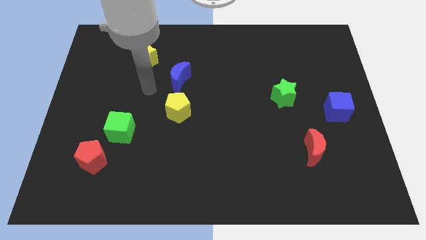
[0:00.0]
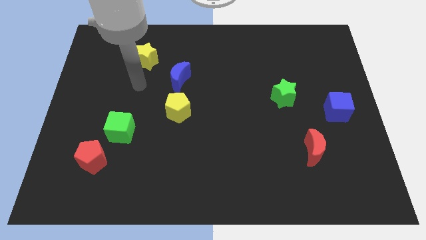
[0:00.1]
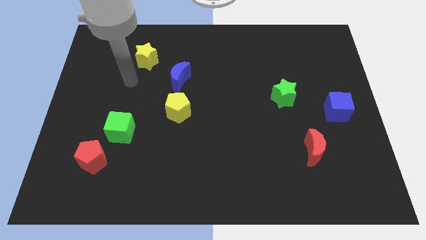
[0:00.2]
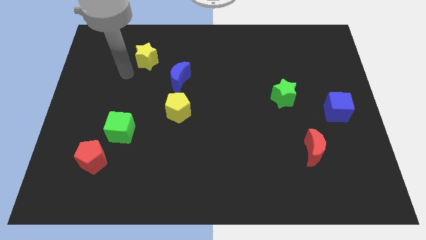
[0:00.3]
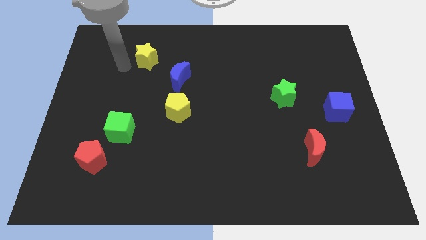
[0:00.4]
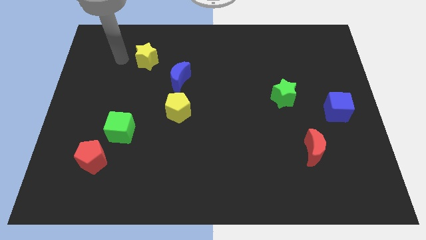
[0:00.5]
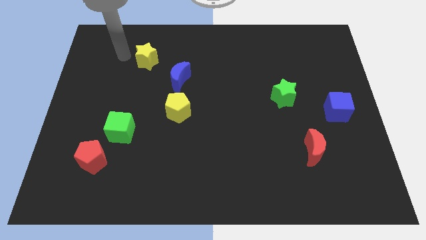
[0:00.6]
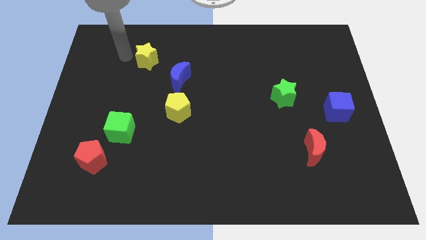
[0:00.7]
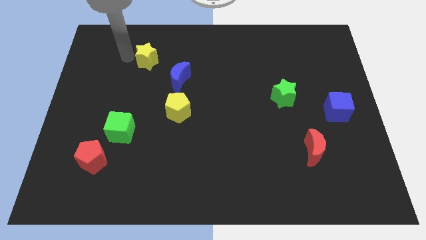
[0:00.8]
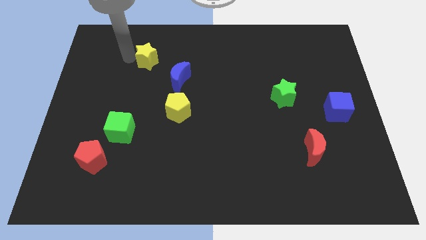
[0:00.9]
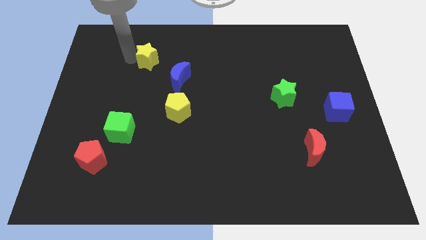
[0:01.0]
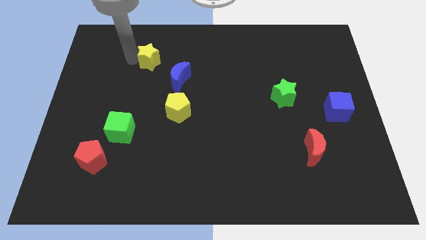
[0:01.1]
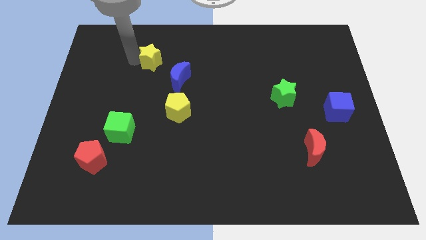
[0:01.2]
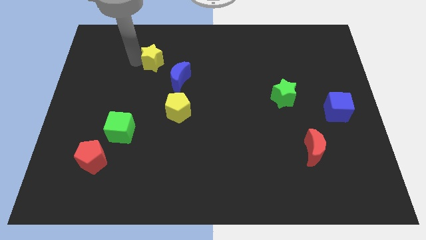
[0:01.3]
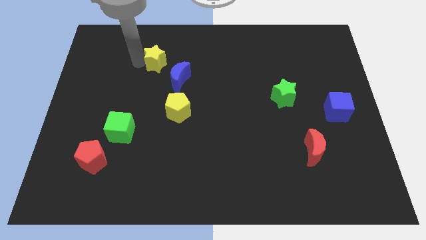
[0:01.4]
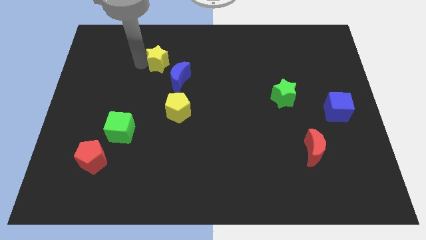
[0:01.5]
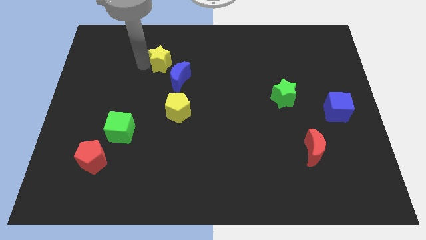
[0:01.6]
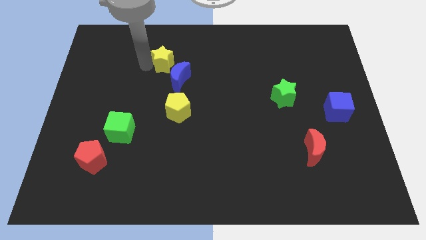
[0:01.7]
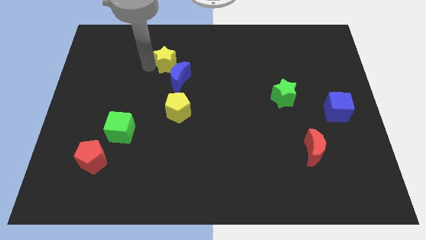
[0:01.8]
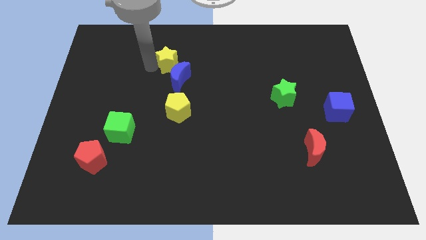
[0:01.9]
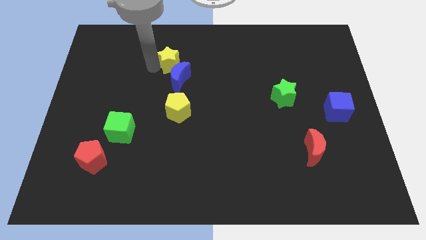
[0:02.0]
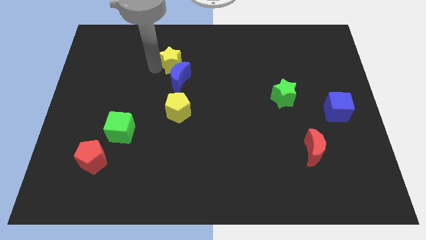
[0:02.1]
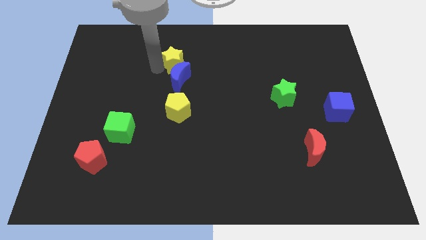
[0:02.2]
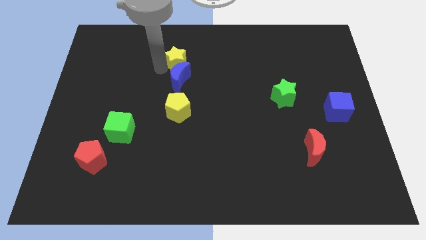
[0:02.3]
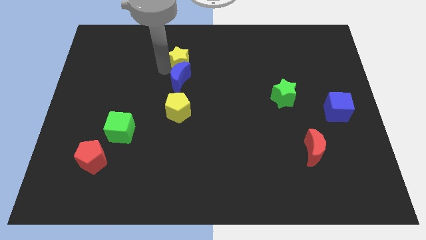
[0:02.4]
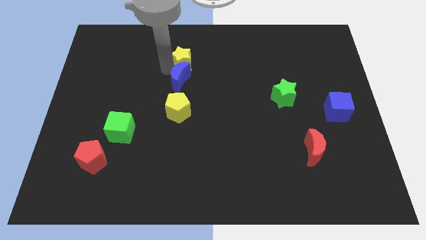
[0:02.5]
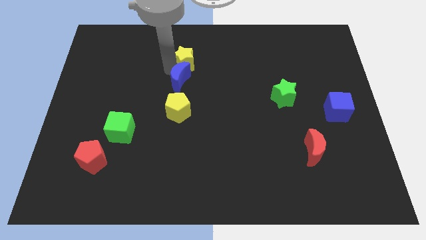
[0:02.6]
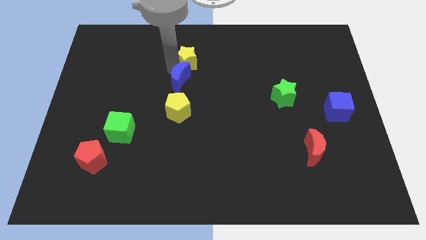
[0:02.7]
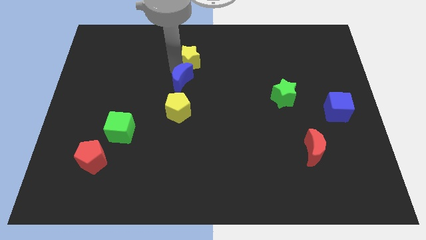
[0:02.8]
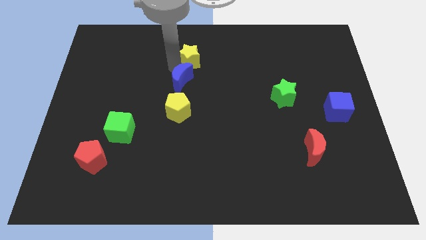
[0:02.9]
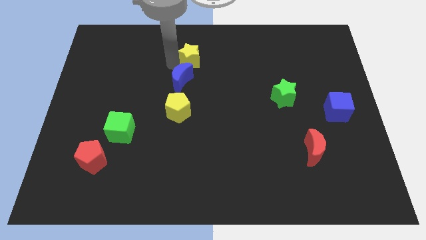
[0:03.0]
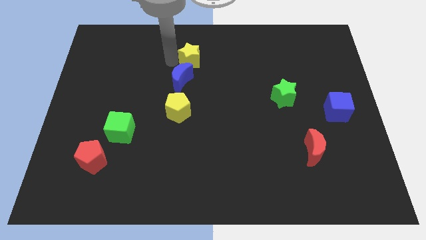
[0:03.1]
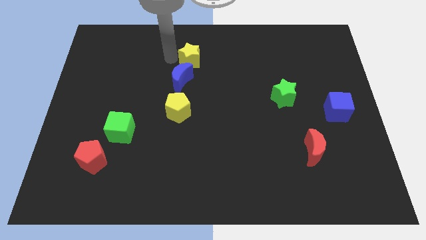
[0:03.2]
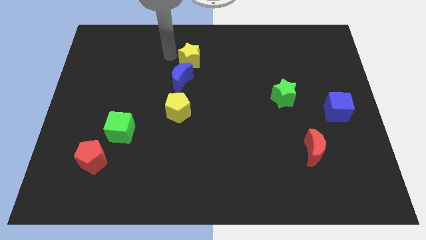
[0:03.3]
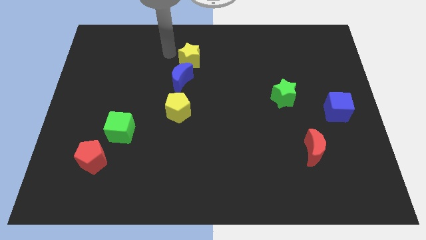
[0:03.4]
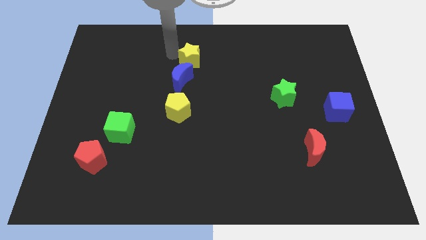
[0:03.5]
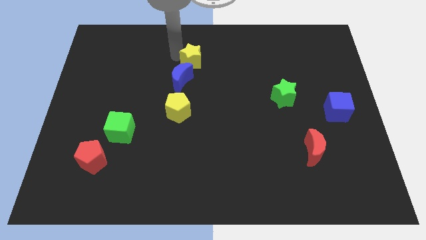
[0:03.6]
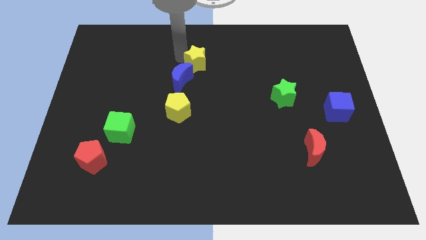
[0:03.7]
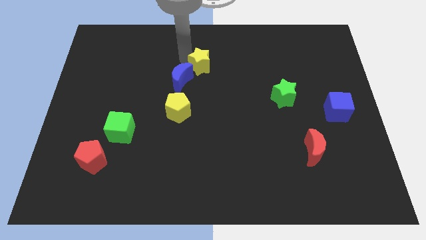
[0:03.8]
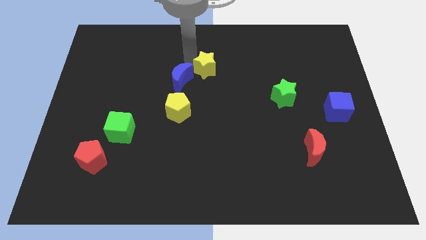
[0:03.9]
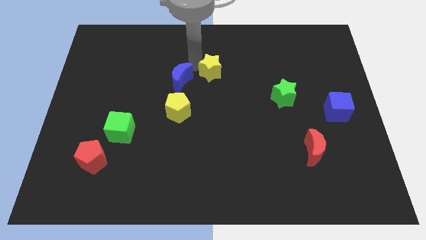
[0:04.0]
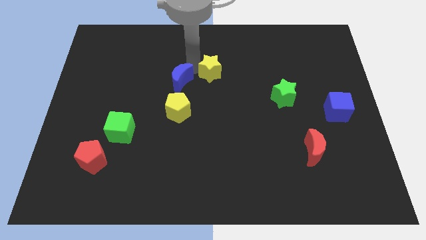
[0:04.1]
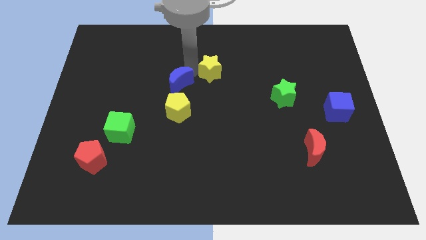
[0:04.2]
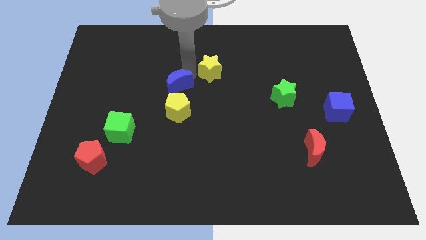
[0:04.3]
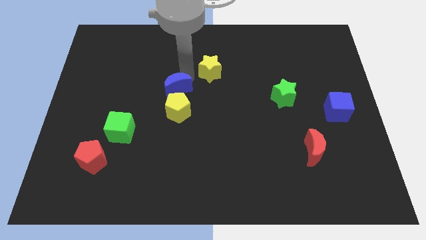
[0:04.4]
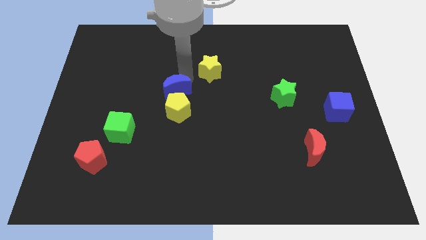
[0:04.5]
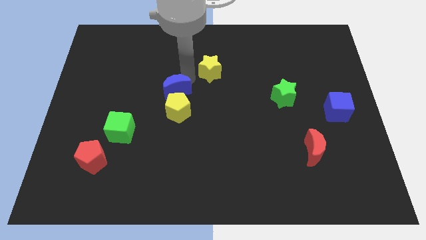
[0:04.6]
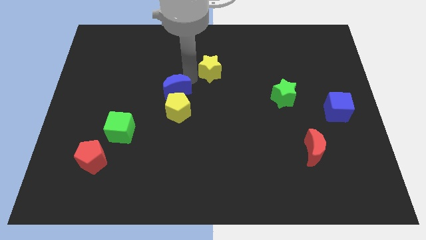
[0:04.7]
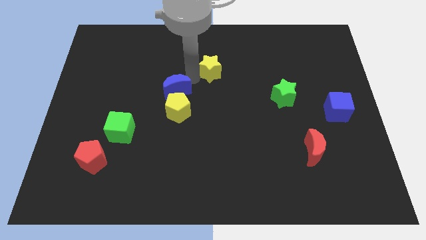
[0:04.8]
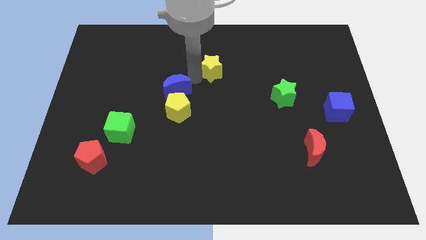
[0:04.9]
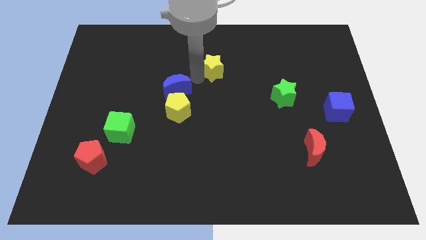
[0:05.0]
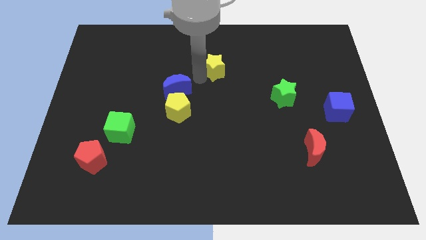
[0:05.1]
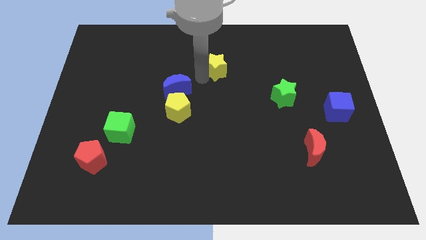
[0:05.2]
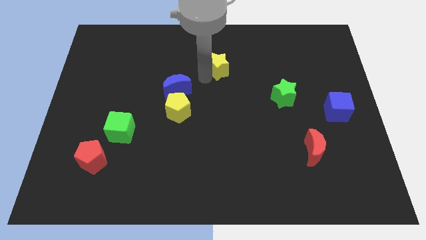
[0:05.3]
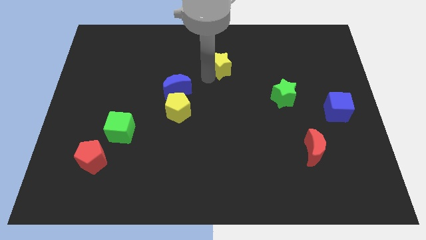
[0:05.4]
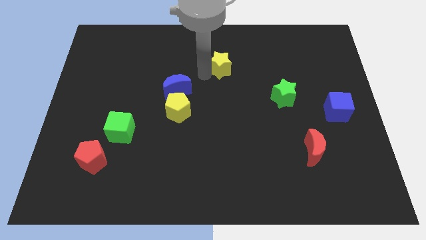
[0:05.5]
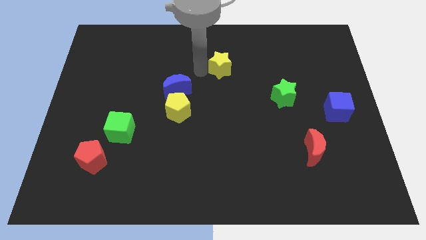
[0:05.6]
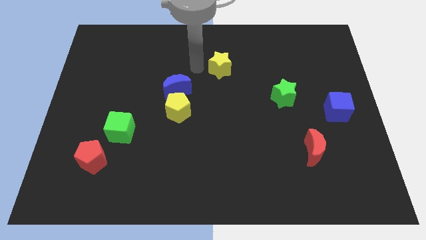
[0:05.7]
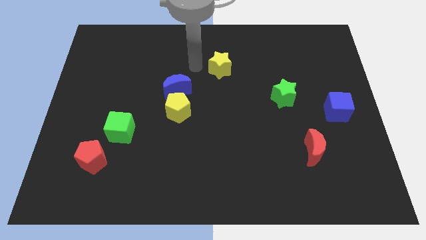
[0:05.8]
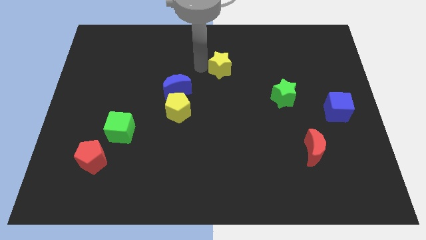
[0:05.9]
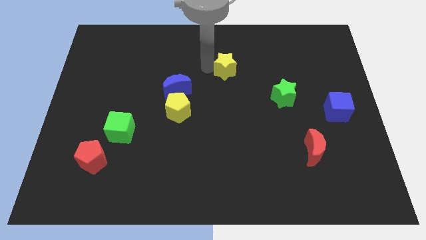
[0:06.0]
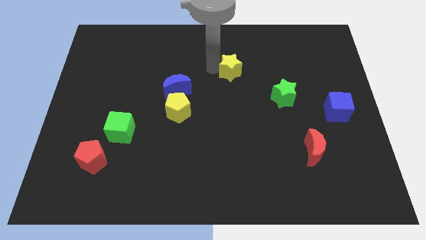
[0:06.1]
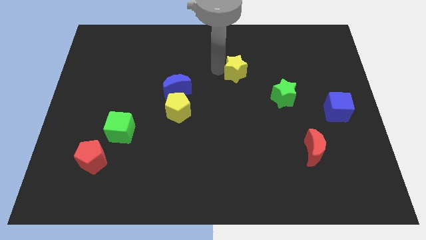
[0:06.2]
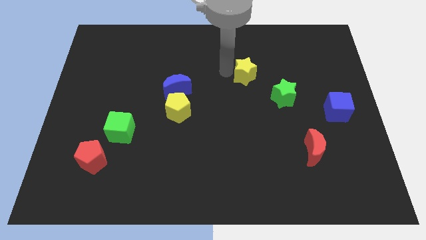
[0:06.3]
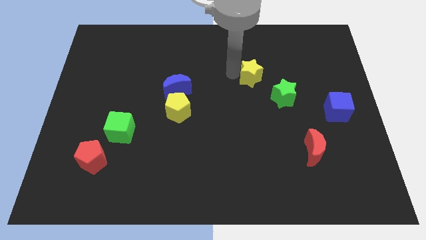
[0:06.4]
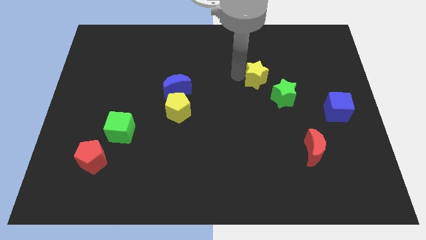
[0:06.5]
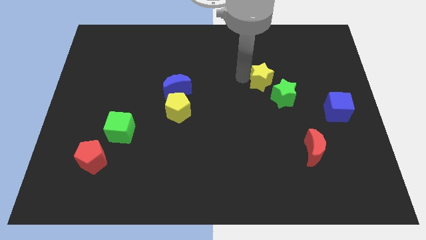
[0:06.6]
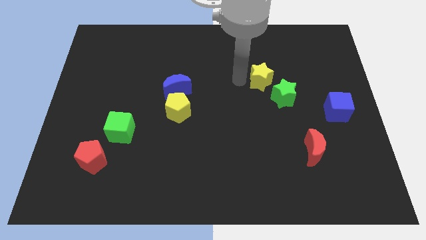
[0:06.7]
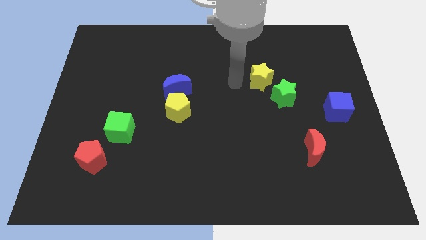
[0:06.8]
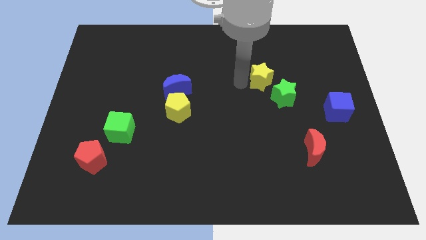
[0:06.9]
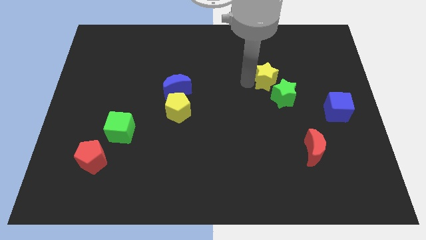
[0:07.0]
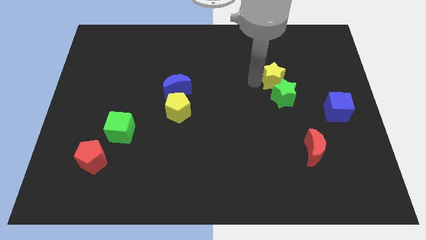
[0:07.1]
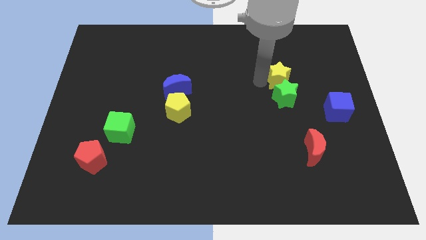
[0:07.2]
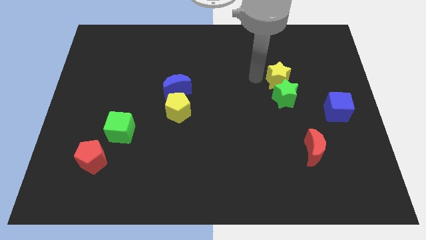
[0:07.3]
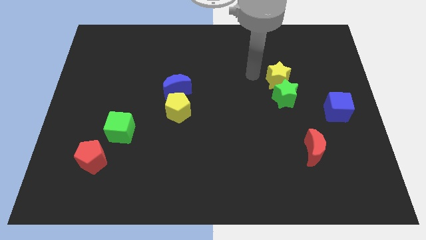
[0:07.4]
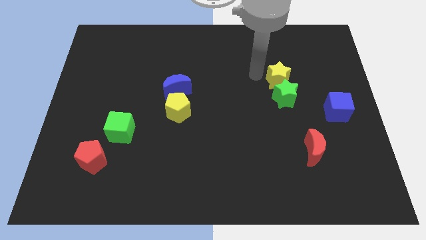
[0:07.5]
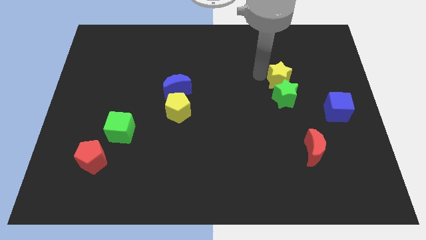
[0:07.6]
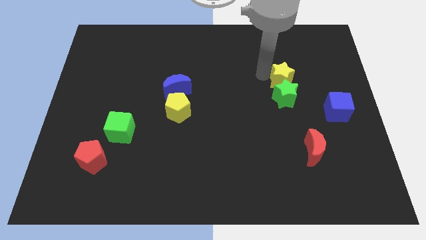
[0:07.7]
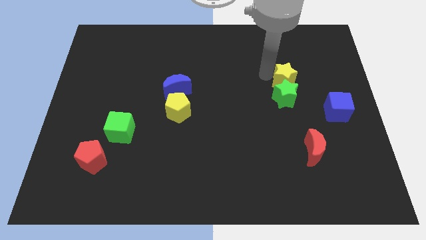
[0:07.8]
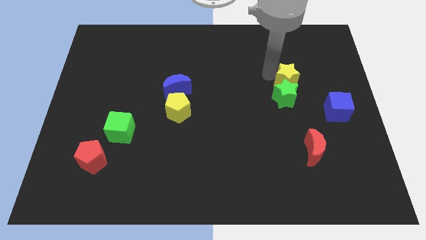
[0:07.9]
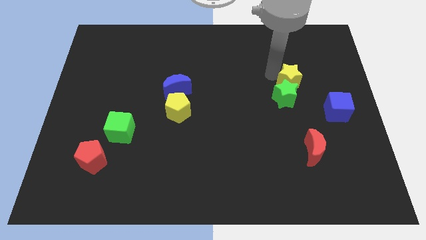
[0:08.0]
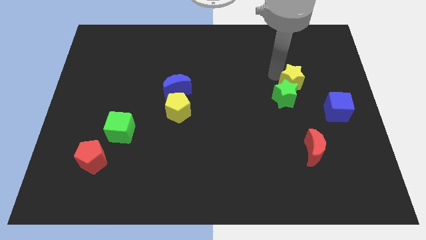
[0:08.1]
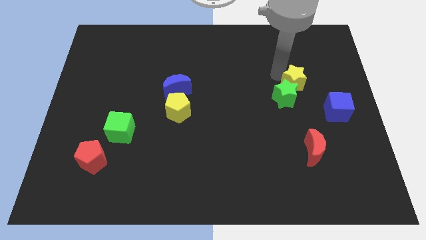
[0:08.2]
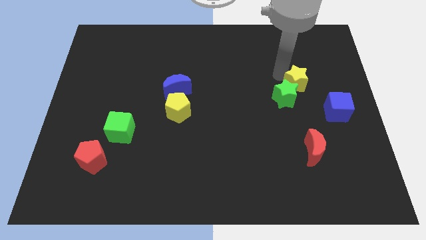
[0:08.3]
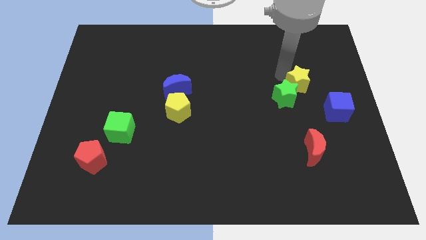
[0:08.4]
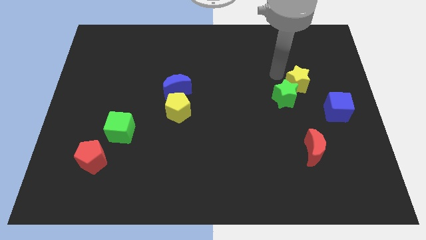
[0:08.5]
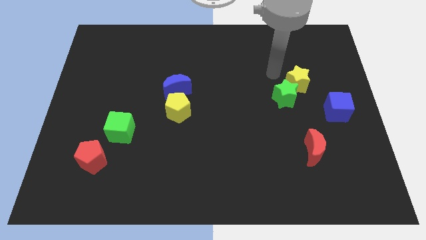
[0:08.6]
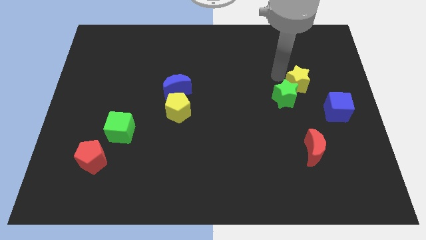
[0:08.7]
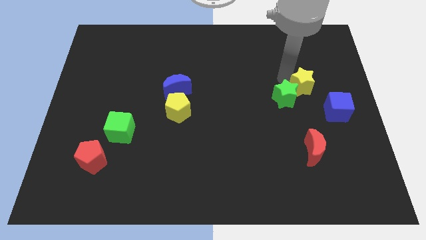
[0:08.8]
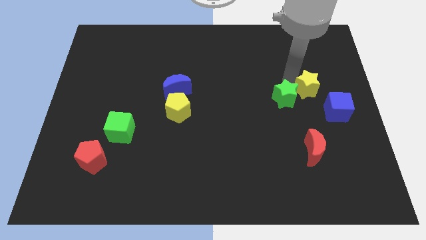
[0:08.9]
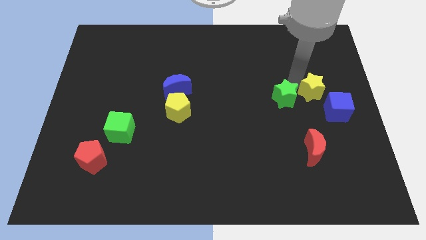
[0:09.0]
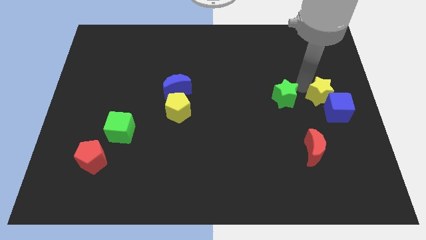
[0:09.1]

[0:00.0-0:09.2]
slide the yellow star to the blue cube
